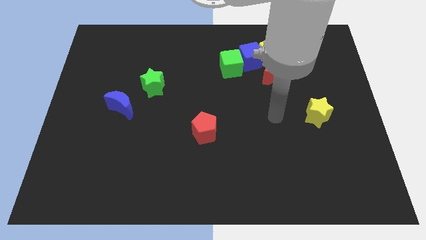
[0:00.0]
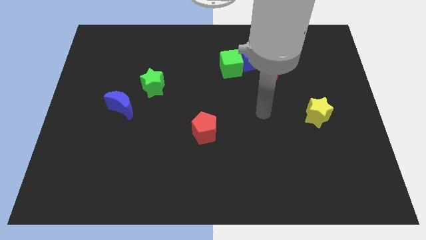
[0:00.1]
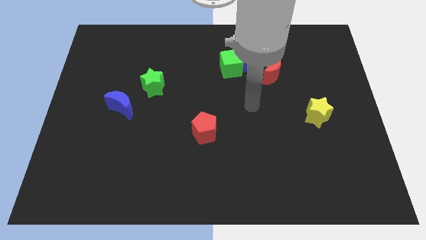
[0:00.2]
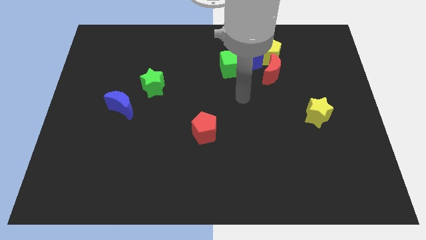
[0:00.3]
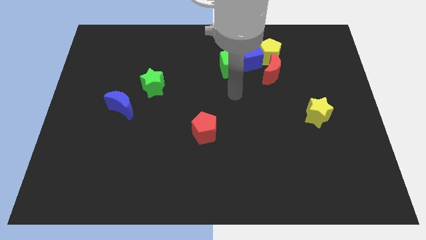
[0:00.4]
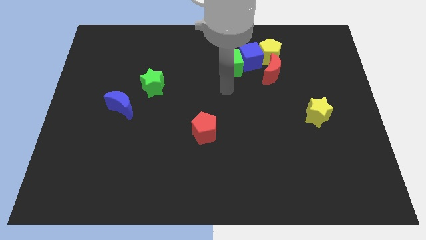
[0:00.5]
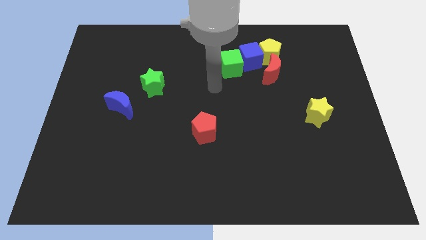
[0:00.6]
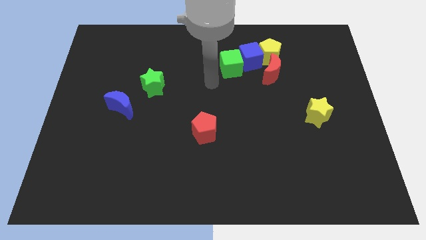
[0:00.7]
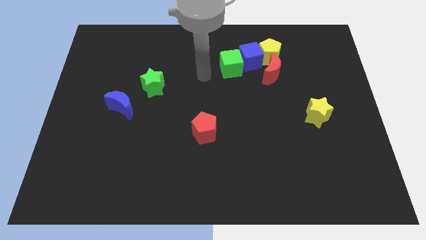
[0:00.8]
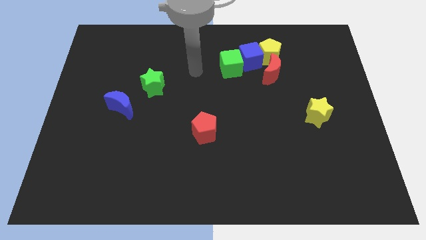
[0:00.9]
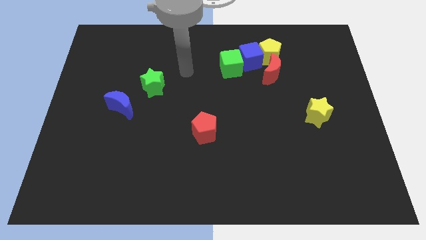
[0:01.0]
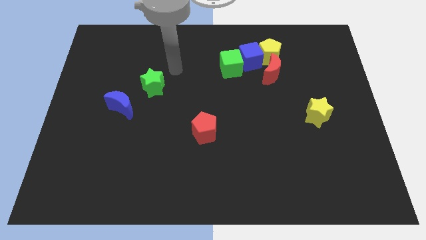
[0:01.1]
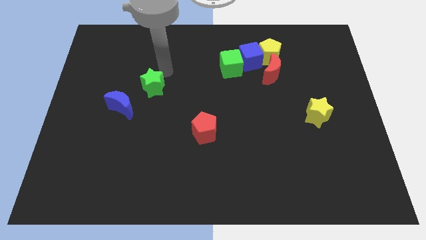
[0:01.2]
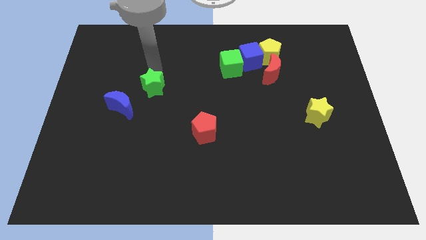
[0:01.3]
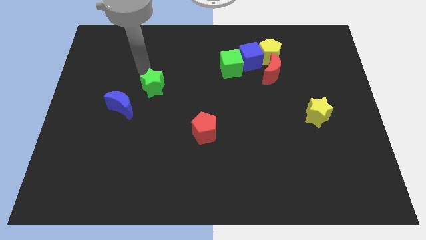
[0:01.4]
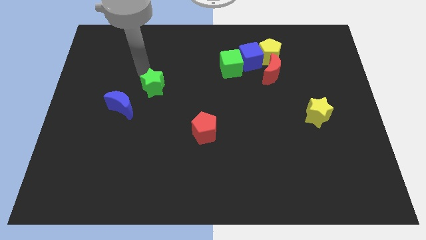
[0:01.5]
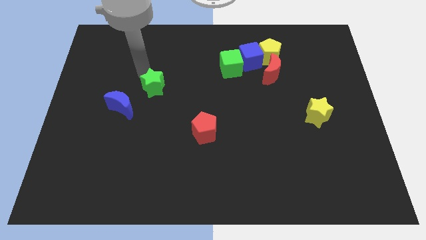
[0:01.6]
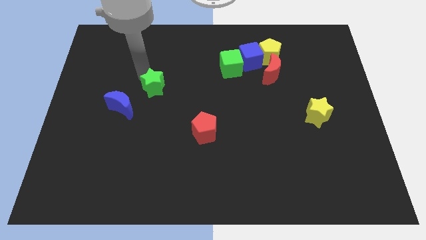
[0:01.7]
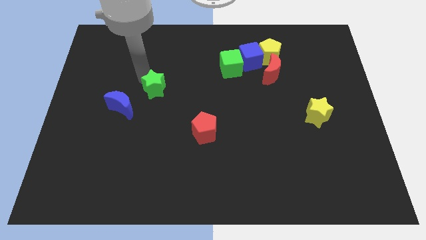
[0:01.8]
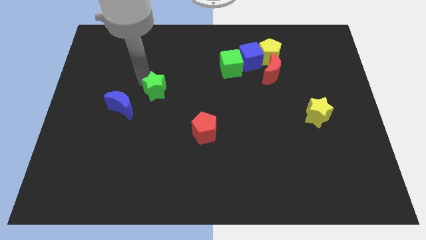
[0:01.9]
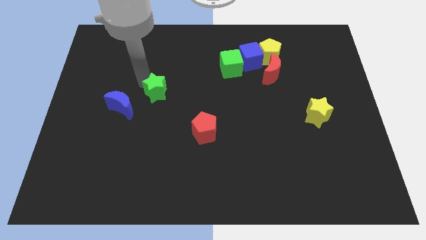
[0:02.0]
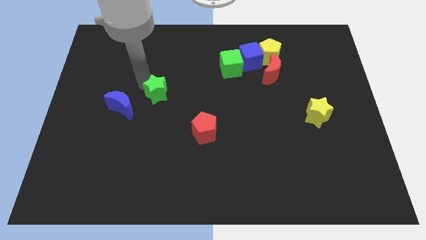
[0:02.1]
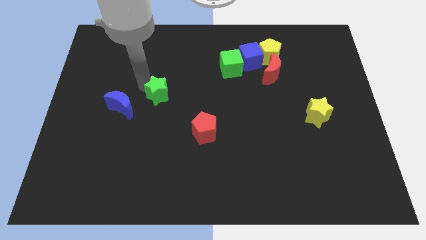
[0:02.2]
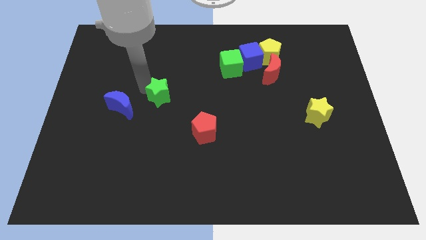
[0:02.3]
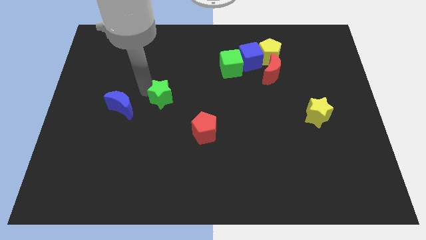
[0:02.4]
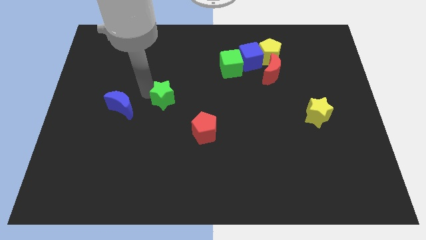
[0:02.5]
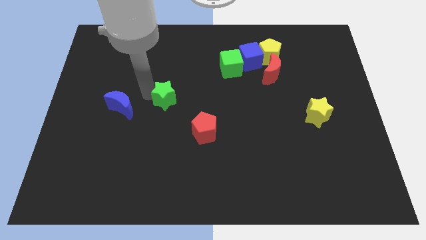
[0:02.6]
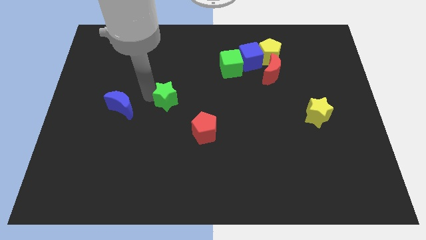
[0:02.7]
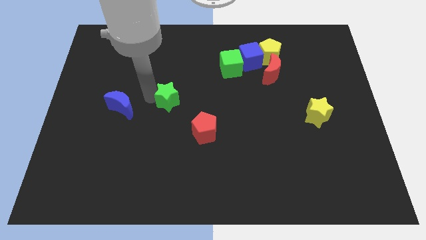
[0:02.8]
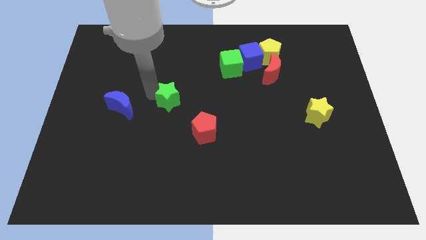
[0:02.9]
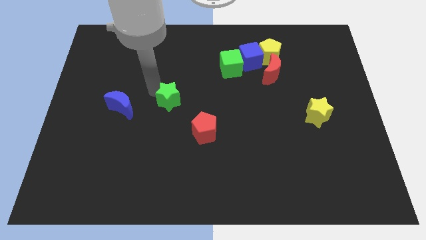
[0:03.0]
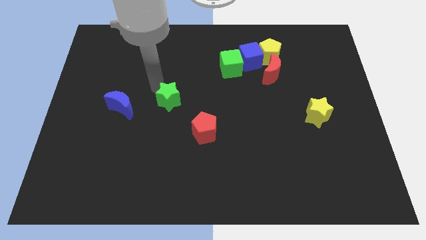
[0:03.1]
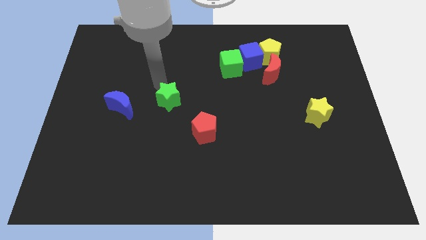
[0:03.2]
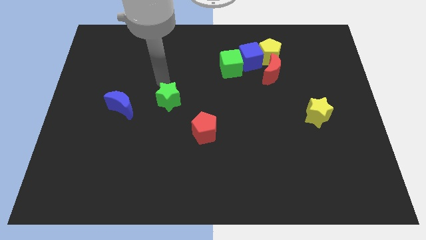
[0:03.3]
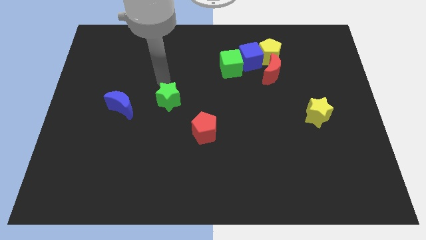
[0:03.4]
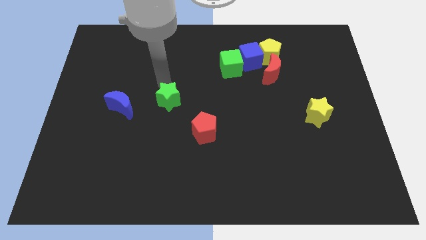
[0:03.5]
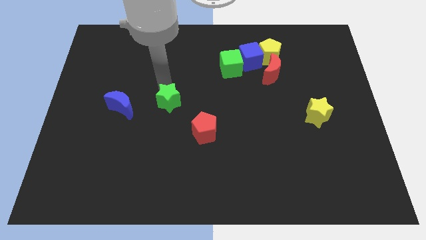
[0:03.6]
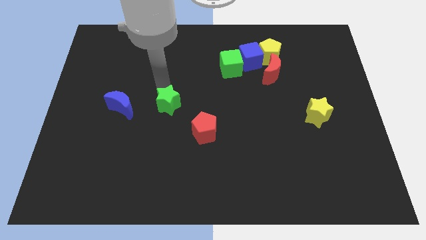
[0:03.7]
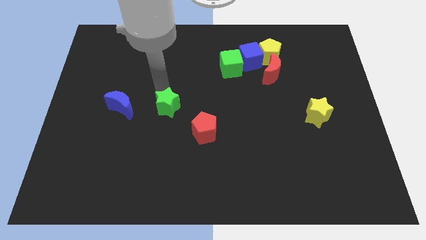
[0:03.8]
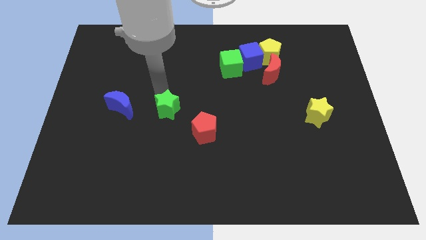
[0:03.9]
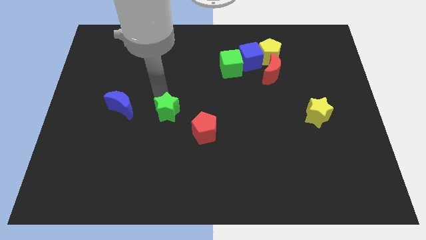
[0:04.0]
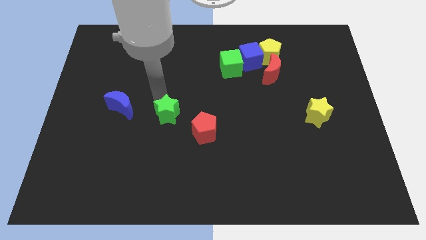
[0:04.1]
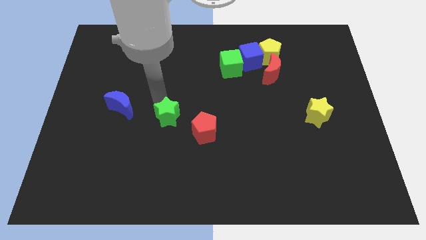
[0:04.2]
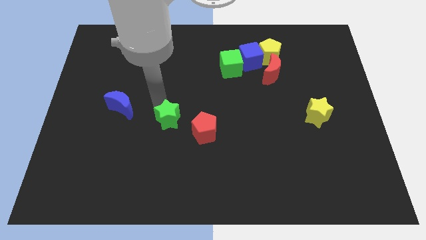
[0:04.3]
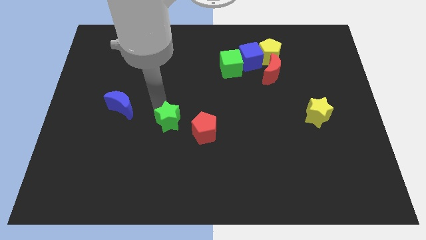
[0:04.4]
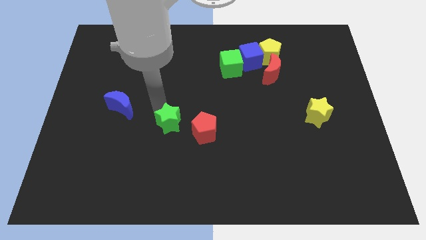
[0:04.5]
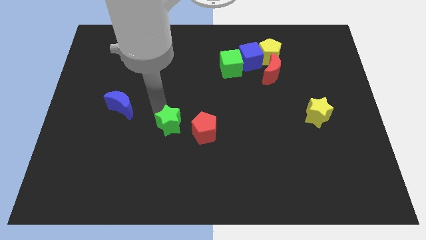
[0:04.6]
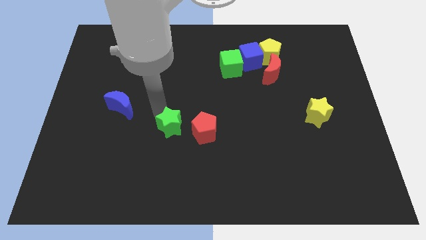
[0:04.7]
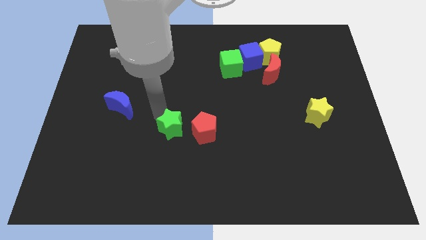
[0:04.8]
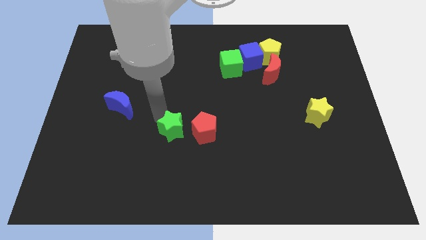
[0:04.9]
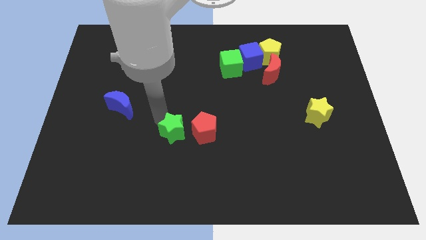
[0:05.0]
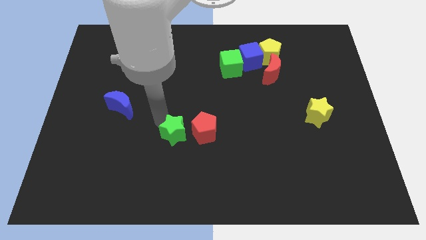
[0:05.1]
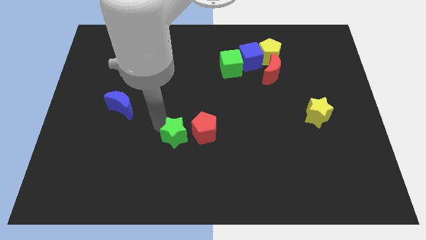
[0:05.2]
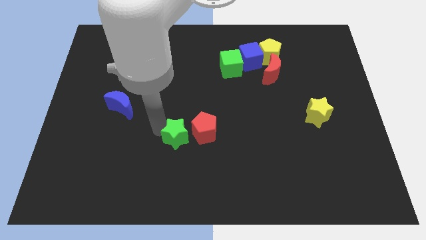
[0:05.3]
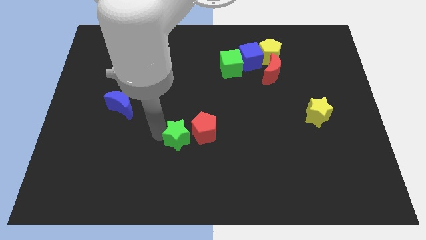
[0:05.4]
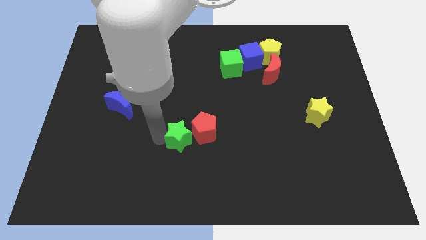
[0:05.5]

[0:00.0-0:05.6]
move the green star to the red pentagon

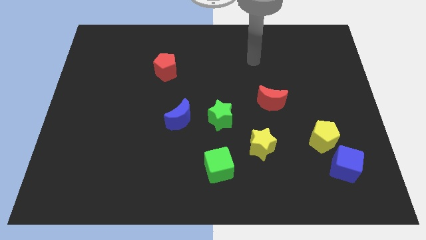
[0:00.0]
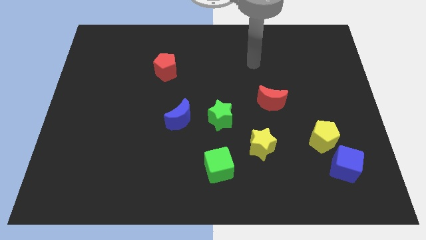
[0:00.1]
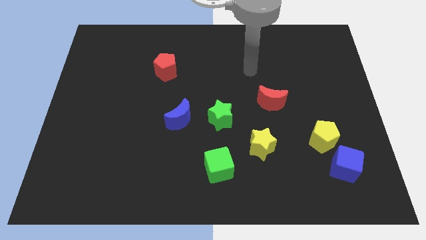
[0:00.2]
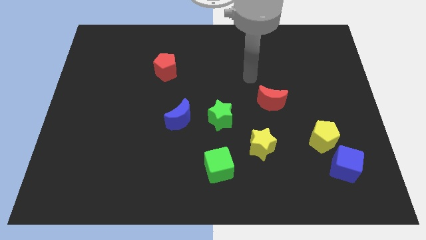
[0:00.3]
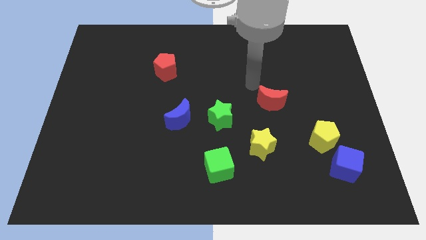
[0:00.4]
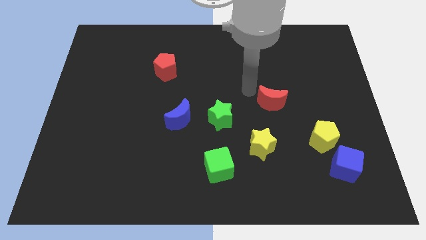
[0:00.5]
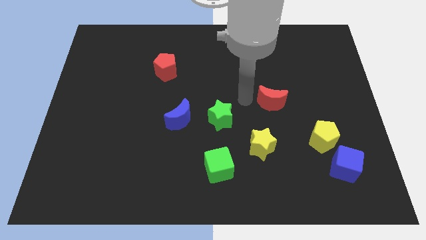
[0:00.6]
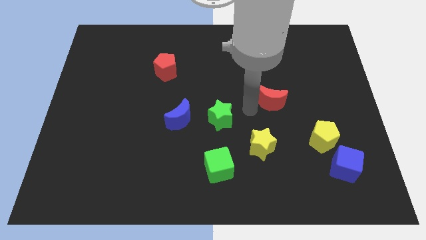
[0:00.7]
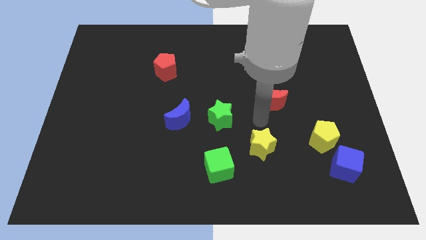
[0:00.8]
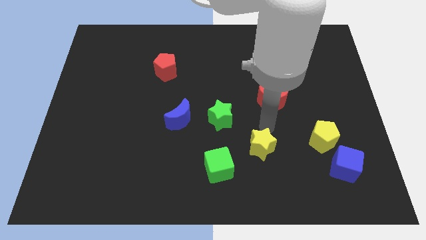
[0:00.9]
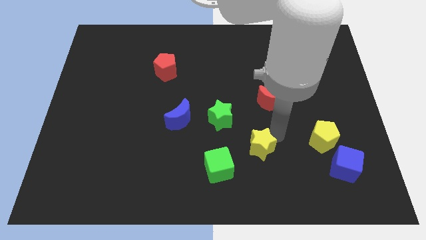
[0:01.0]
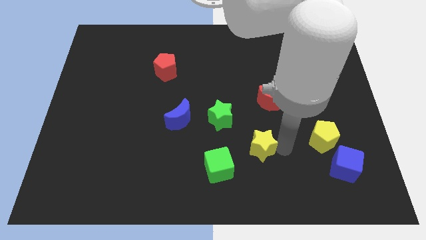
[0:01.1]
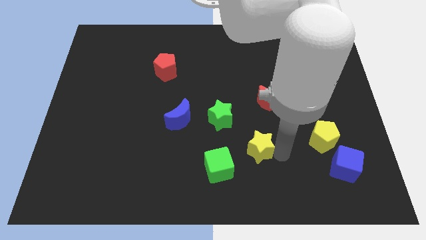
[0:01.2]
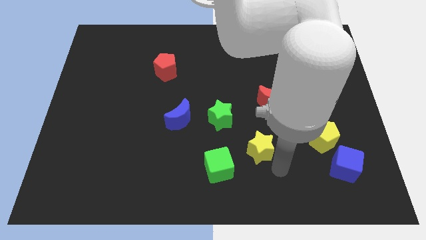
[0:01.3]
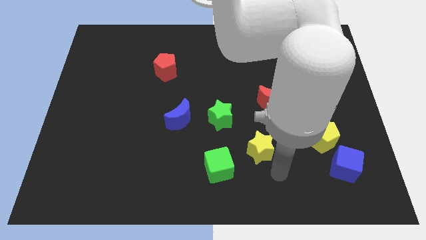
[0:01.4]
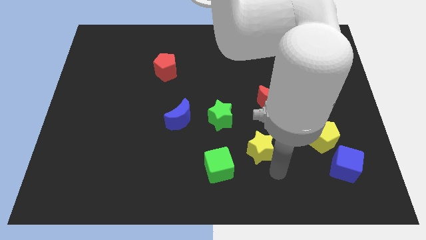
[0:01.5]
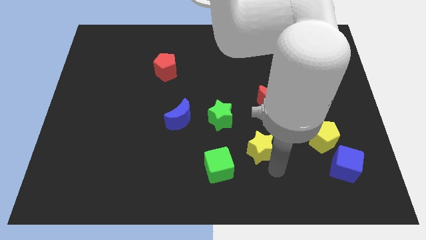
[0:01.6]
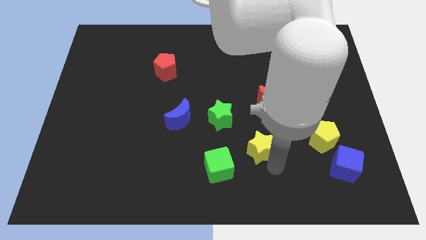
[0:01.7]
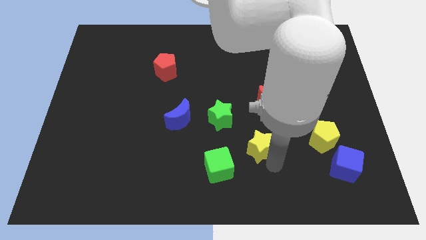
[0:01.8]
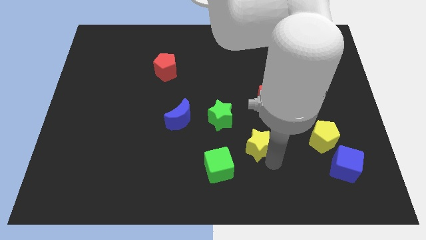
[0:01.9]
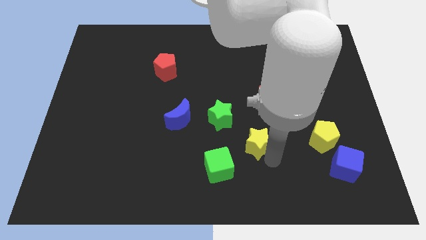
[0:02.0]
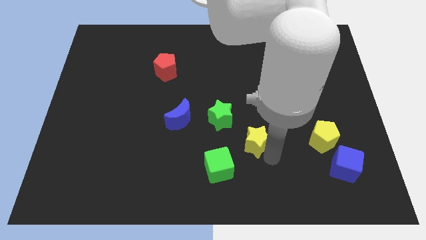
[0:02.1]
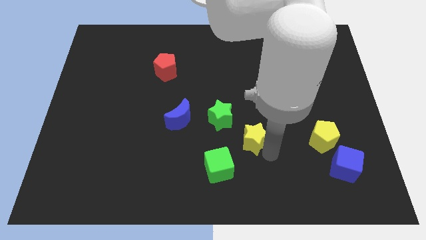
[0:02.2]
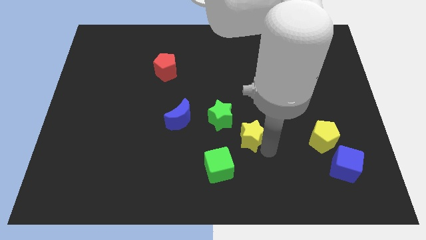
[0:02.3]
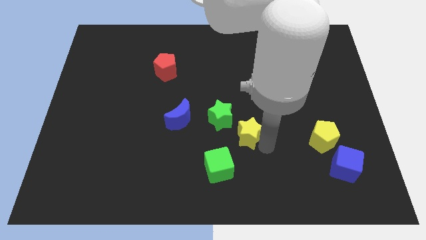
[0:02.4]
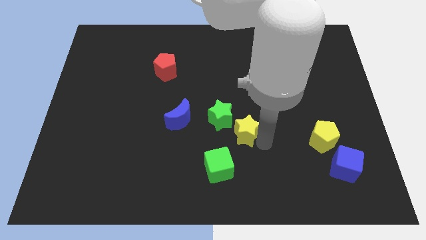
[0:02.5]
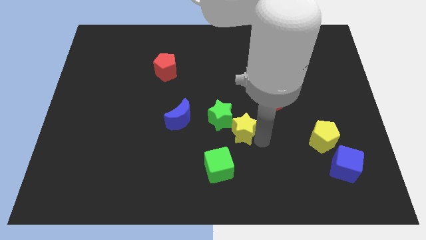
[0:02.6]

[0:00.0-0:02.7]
slide the yellow star next to the green star
